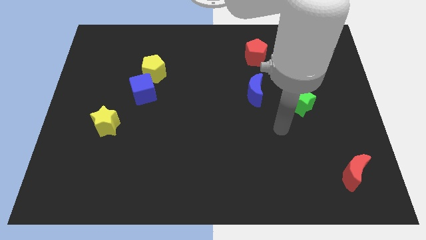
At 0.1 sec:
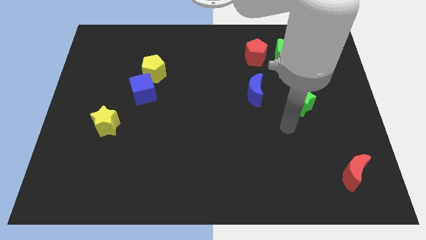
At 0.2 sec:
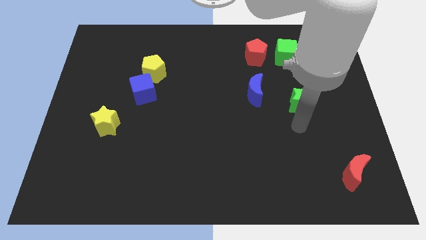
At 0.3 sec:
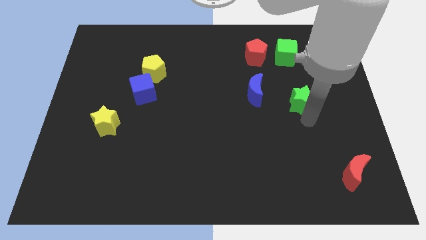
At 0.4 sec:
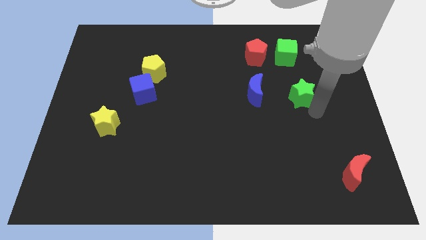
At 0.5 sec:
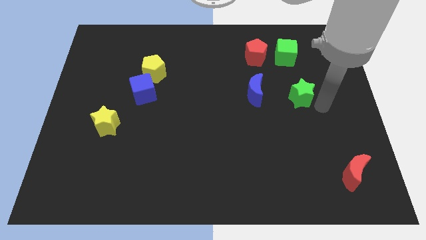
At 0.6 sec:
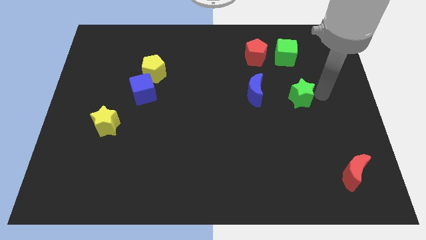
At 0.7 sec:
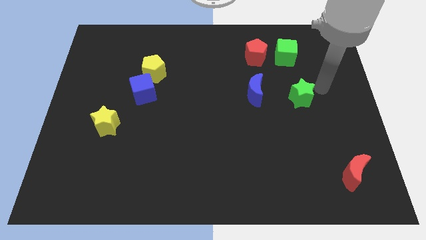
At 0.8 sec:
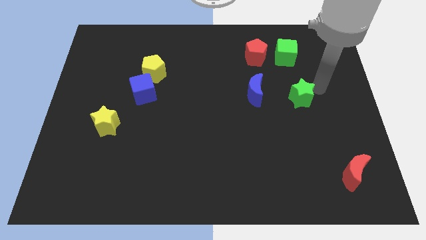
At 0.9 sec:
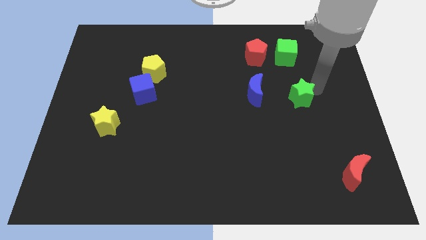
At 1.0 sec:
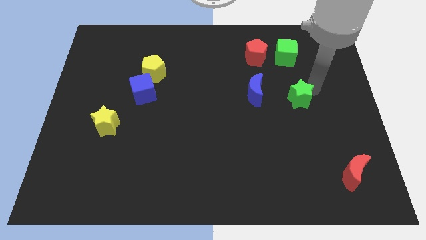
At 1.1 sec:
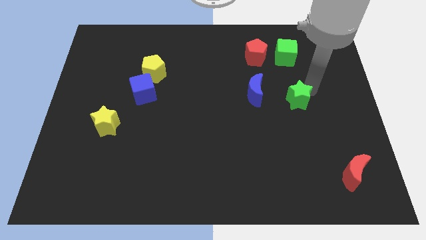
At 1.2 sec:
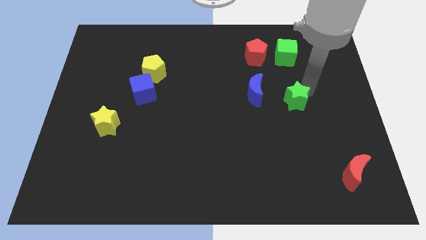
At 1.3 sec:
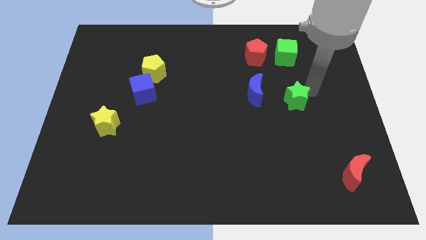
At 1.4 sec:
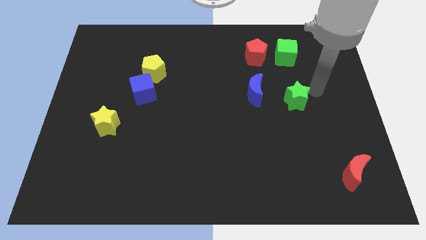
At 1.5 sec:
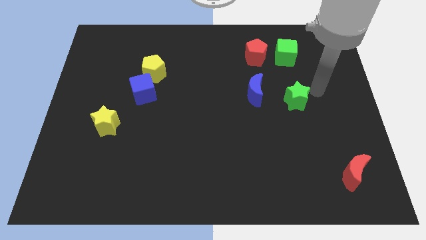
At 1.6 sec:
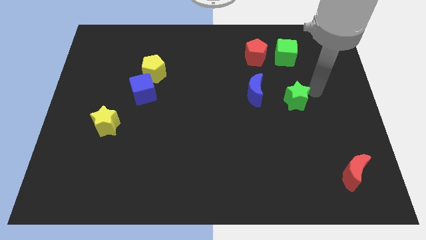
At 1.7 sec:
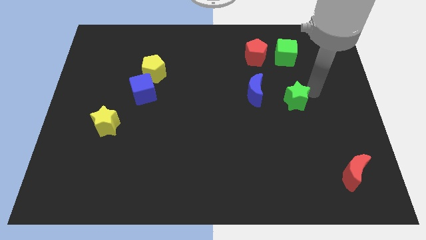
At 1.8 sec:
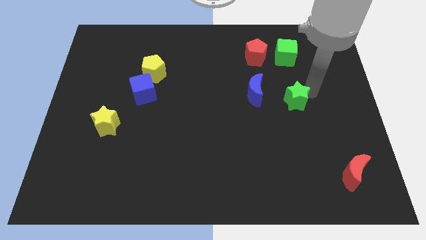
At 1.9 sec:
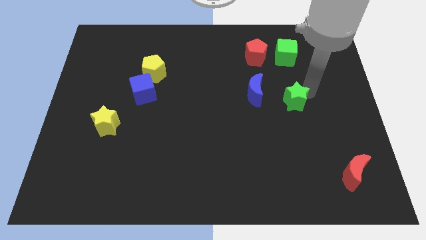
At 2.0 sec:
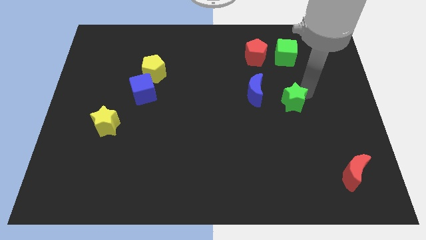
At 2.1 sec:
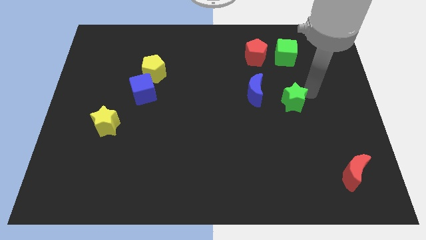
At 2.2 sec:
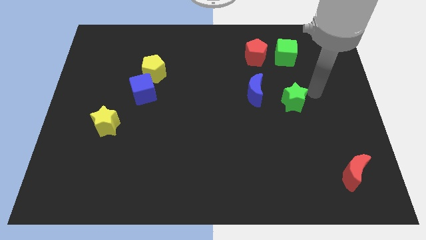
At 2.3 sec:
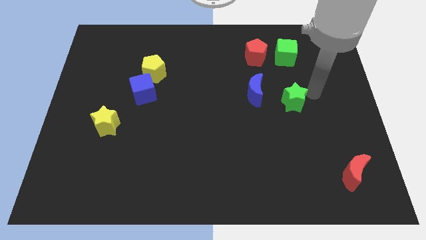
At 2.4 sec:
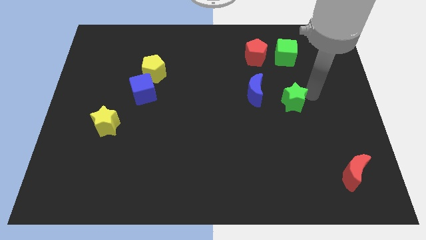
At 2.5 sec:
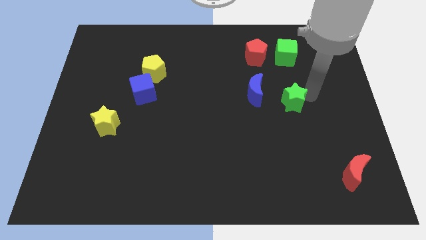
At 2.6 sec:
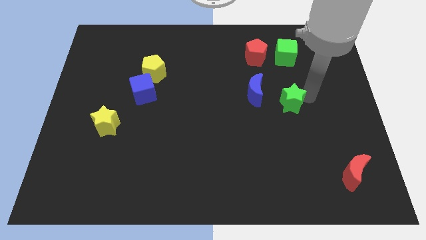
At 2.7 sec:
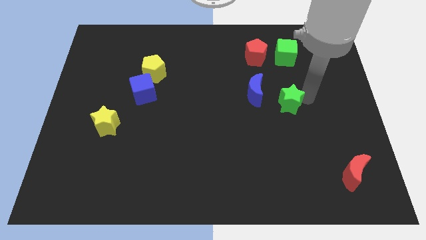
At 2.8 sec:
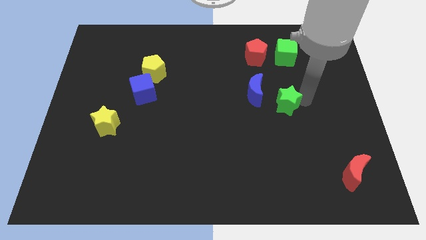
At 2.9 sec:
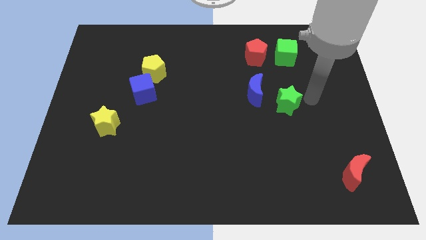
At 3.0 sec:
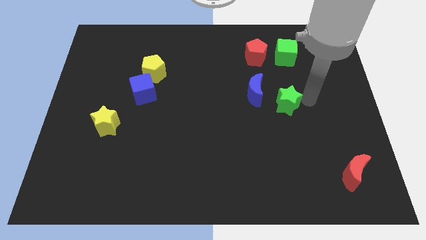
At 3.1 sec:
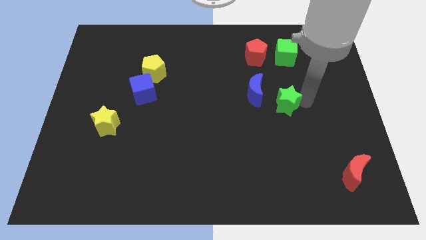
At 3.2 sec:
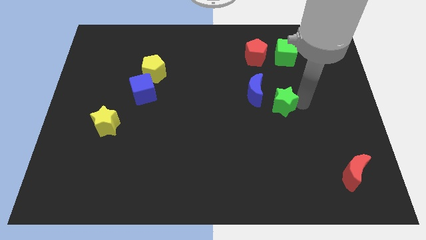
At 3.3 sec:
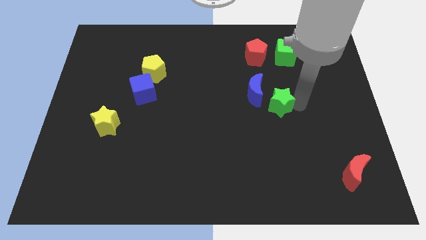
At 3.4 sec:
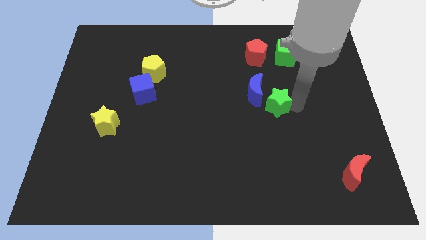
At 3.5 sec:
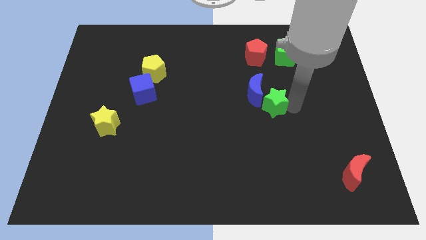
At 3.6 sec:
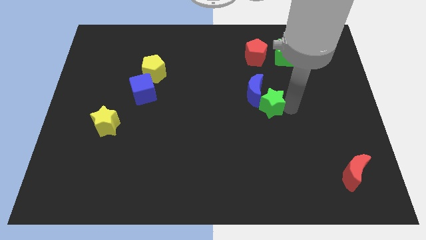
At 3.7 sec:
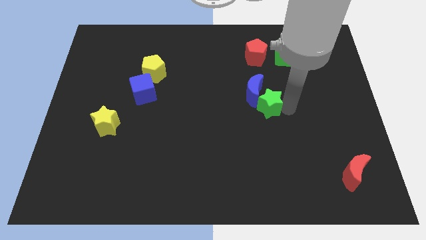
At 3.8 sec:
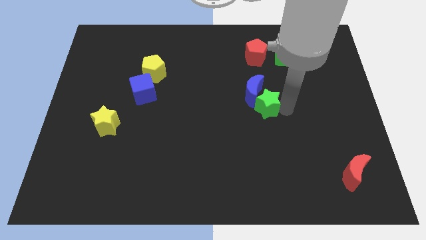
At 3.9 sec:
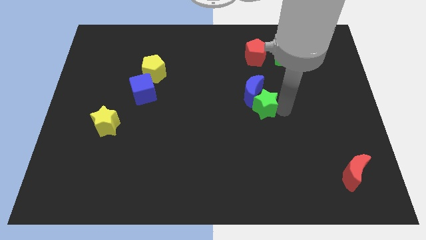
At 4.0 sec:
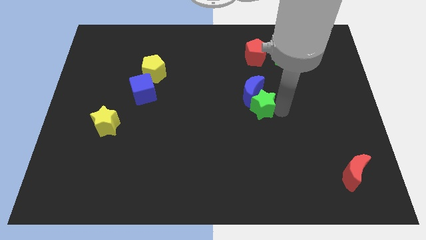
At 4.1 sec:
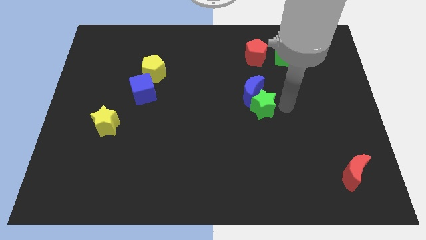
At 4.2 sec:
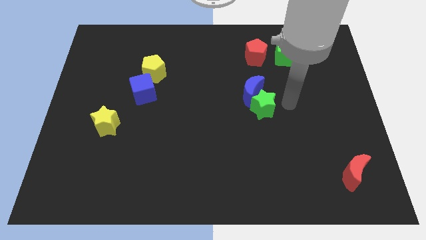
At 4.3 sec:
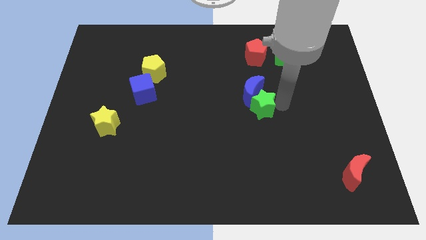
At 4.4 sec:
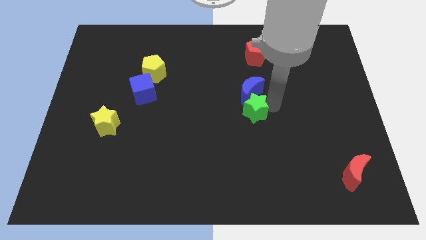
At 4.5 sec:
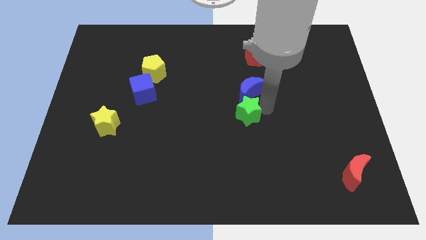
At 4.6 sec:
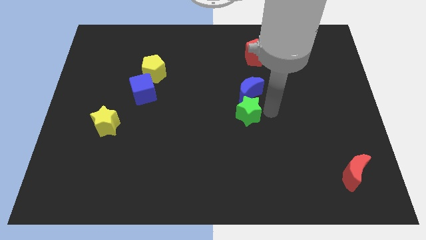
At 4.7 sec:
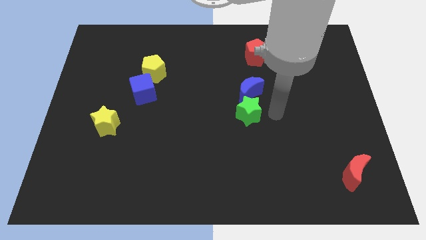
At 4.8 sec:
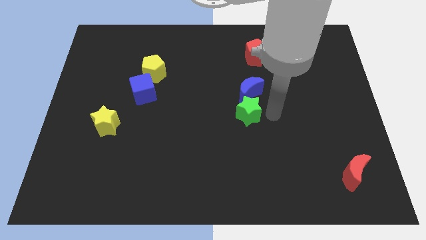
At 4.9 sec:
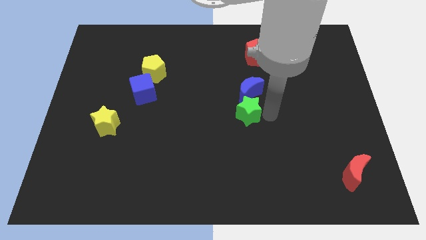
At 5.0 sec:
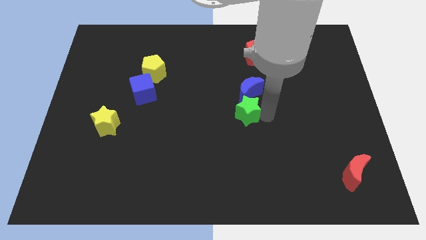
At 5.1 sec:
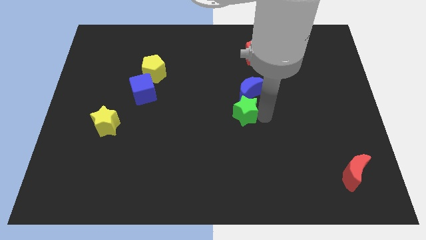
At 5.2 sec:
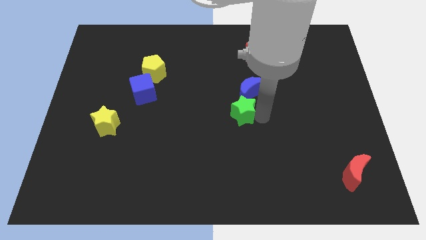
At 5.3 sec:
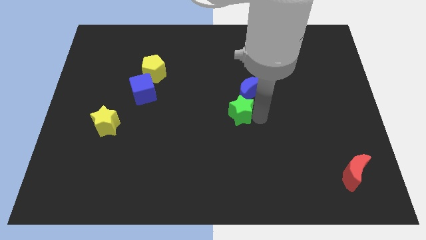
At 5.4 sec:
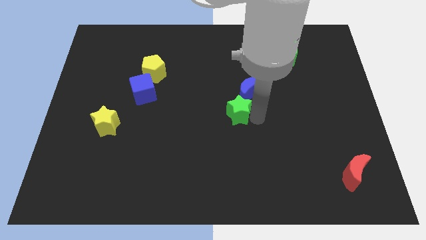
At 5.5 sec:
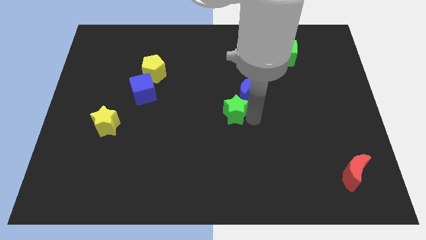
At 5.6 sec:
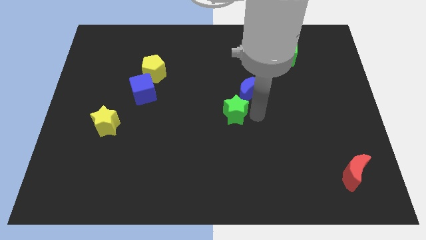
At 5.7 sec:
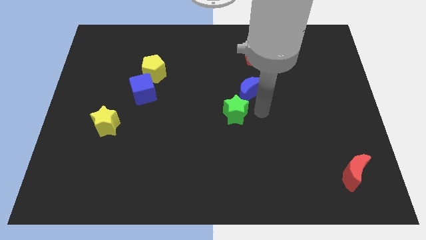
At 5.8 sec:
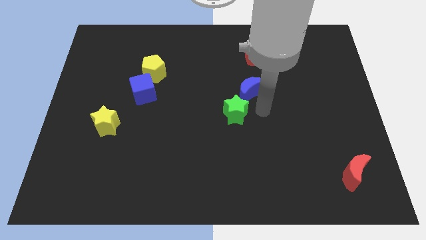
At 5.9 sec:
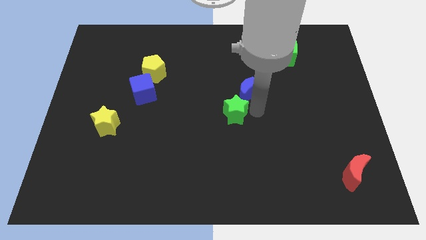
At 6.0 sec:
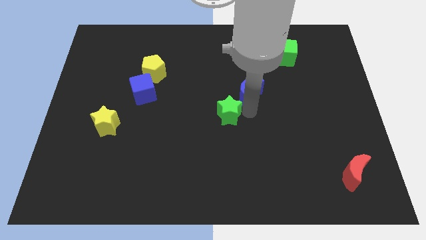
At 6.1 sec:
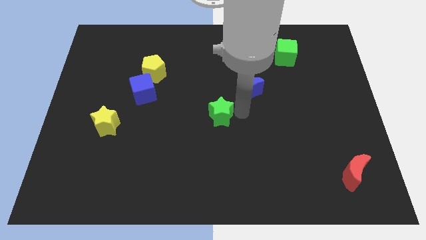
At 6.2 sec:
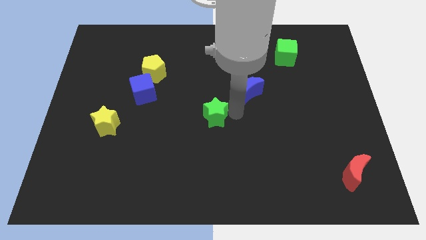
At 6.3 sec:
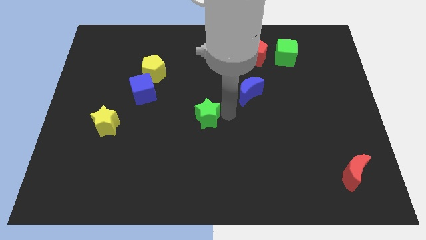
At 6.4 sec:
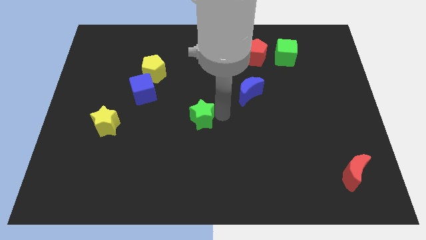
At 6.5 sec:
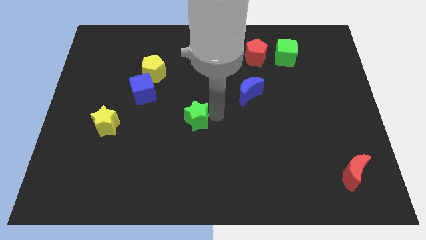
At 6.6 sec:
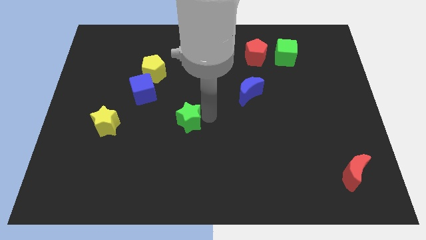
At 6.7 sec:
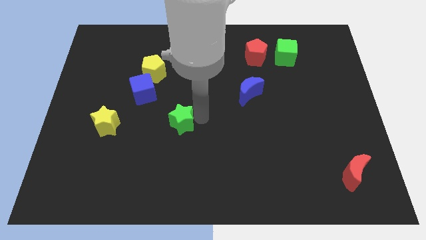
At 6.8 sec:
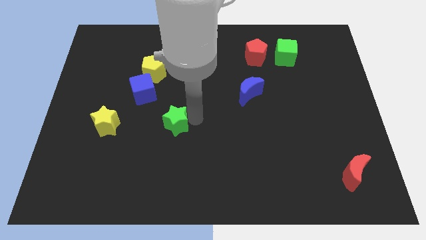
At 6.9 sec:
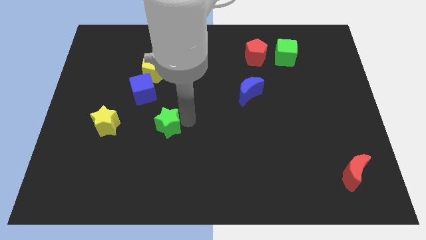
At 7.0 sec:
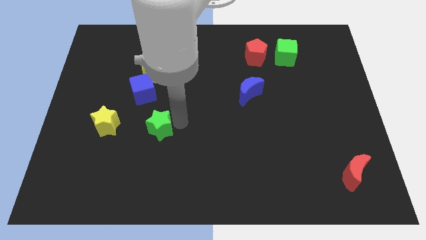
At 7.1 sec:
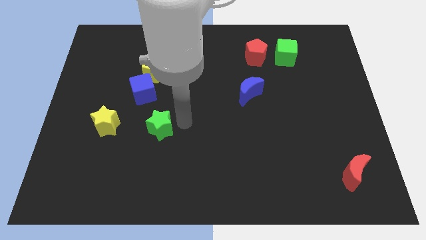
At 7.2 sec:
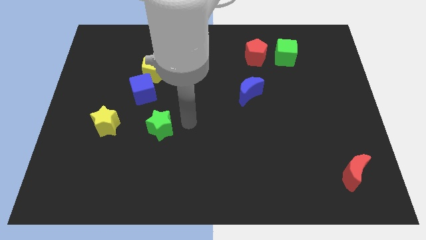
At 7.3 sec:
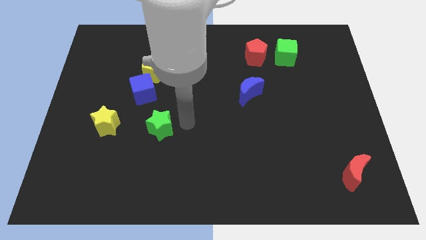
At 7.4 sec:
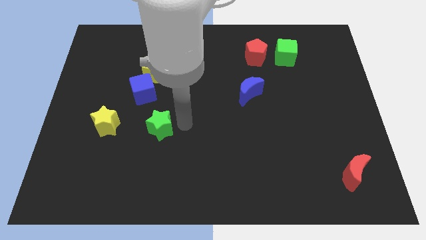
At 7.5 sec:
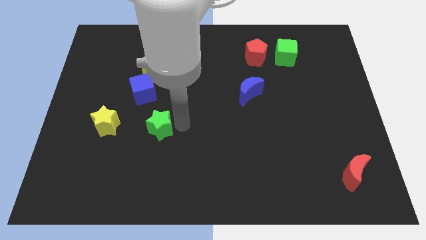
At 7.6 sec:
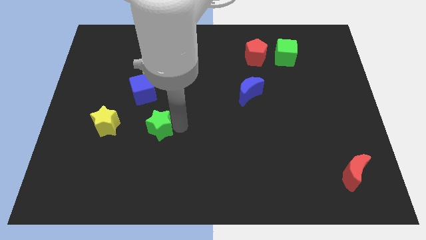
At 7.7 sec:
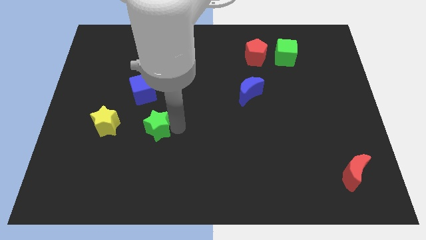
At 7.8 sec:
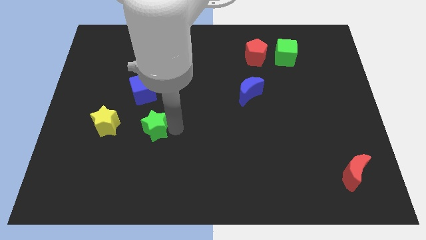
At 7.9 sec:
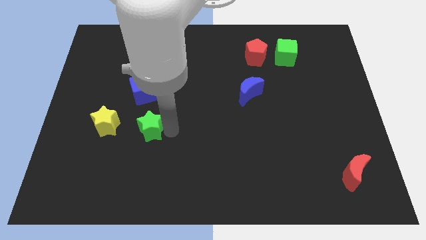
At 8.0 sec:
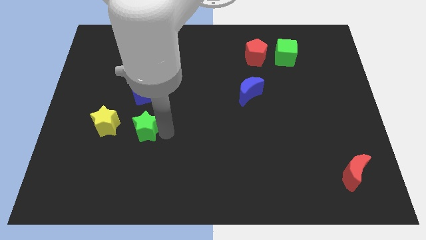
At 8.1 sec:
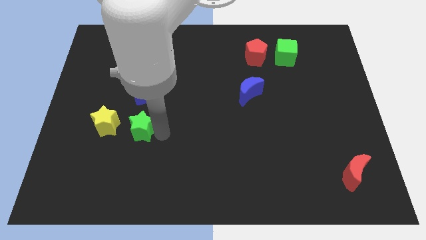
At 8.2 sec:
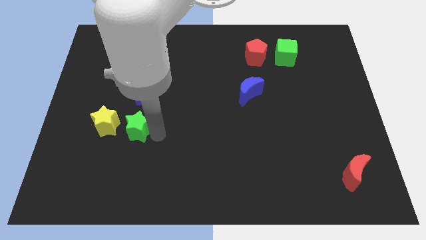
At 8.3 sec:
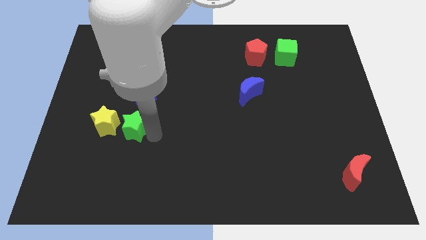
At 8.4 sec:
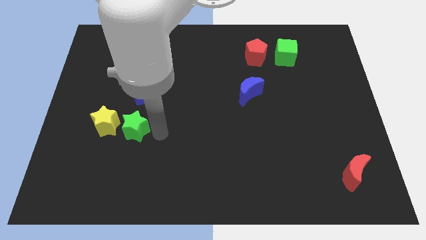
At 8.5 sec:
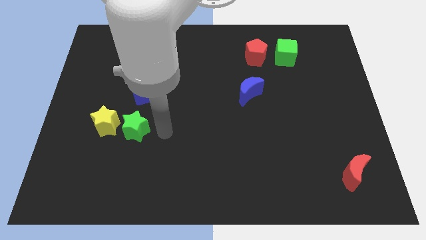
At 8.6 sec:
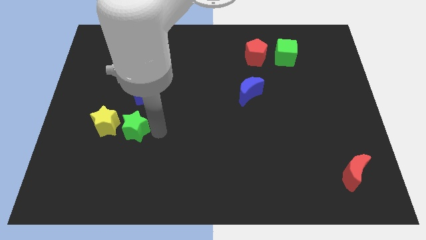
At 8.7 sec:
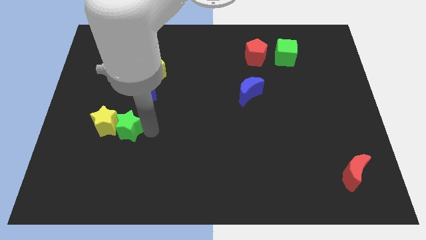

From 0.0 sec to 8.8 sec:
slide the green star close to the yellow star
